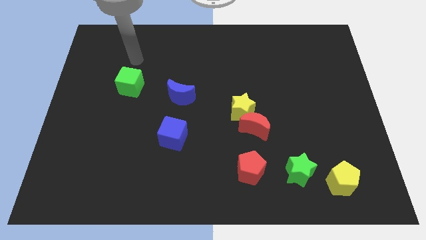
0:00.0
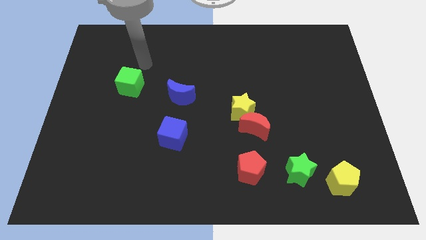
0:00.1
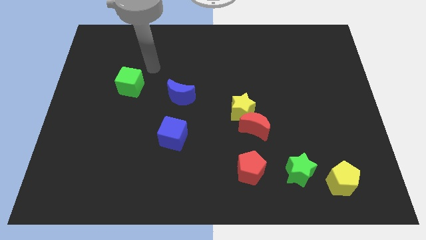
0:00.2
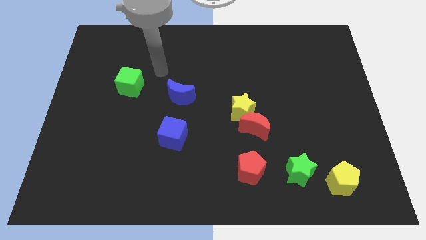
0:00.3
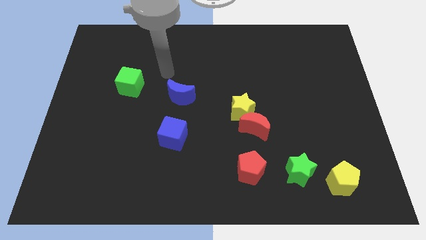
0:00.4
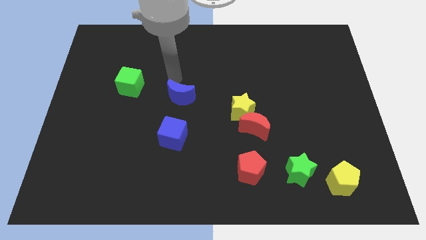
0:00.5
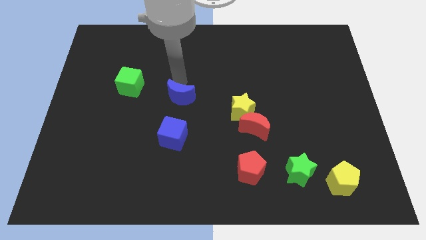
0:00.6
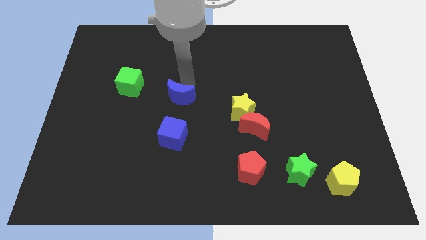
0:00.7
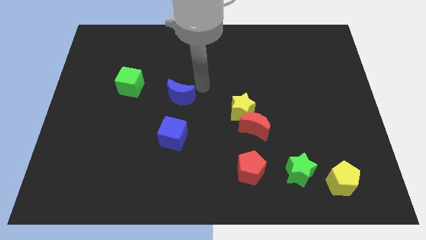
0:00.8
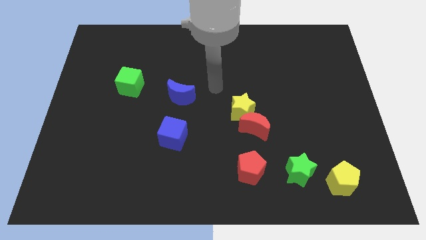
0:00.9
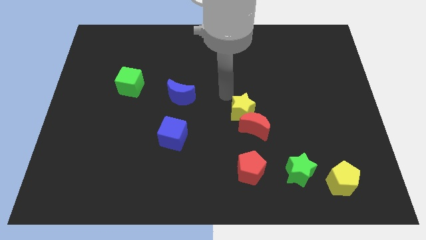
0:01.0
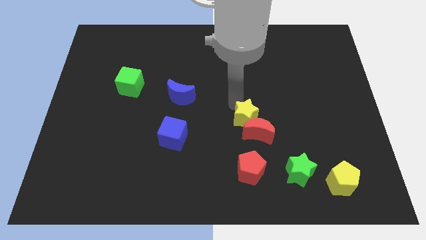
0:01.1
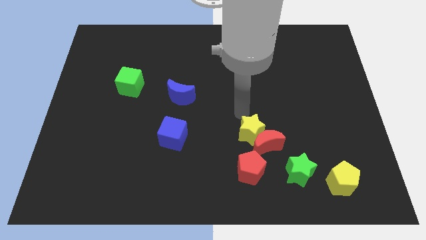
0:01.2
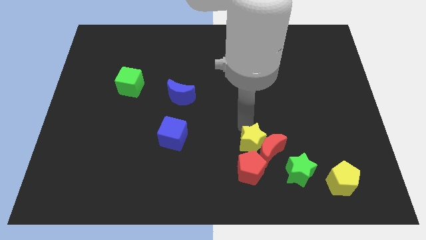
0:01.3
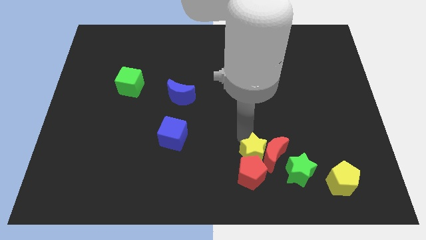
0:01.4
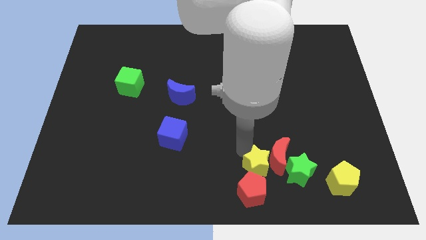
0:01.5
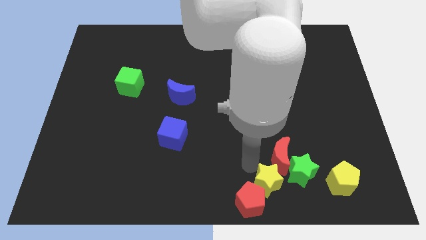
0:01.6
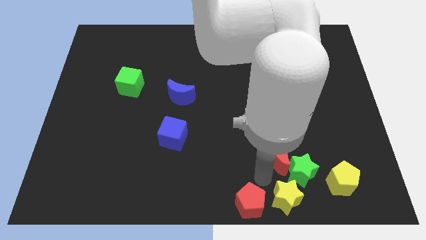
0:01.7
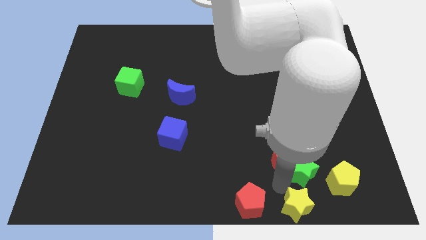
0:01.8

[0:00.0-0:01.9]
pull the red moon apart from the yellow star

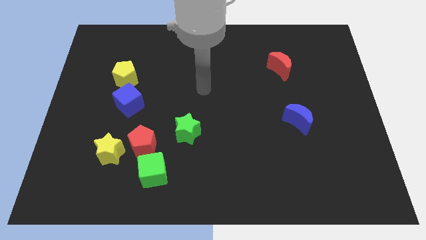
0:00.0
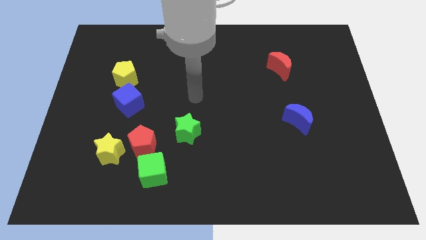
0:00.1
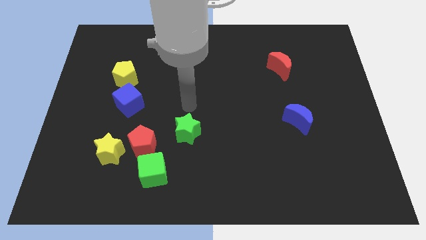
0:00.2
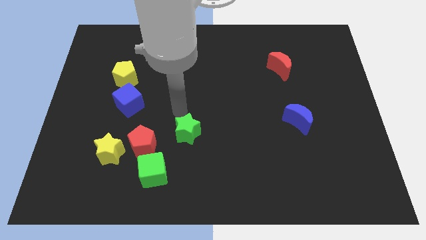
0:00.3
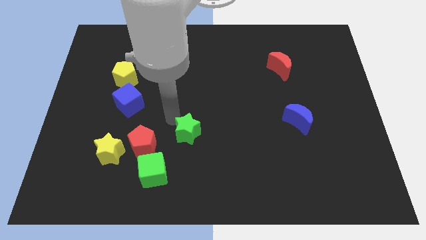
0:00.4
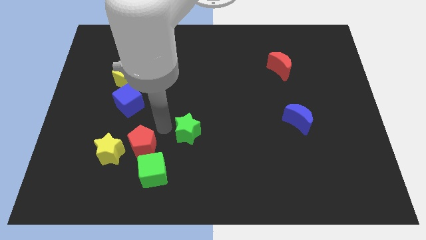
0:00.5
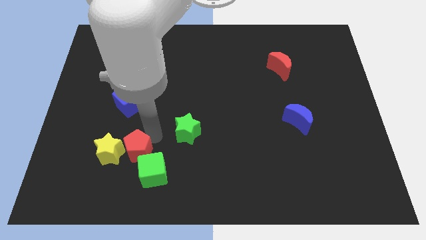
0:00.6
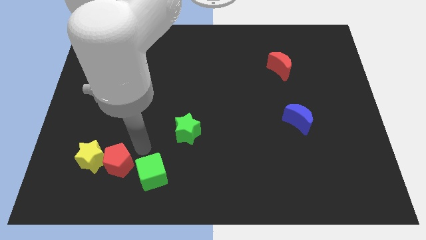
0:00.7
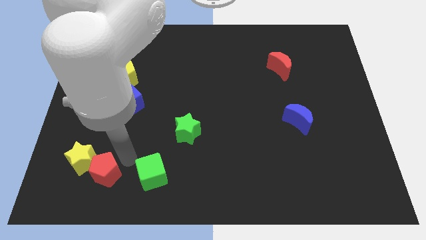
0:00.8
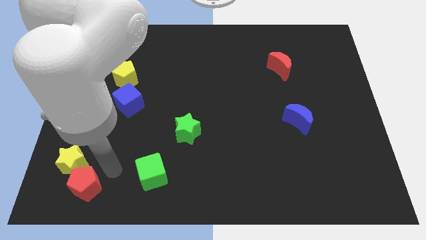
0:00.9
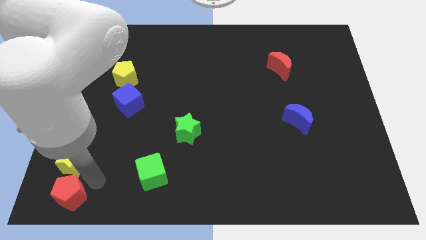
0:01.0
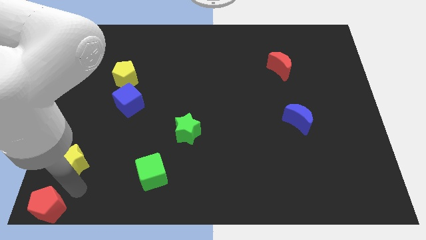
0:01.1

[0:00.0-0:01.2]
pull the yellow star apart from the red pentagon

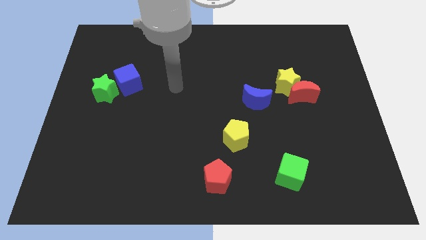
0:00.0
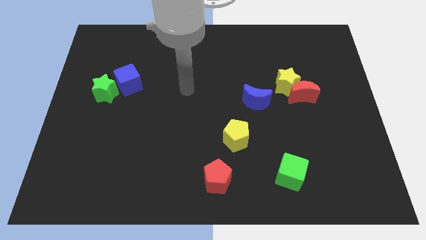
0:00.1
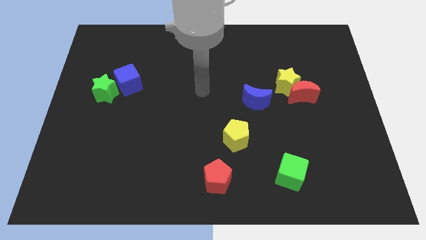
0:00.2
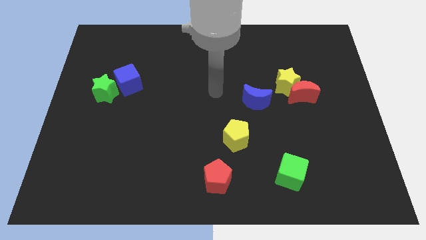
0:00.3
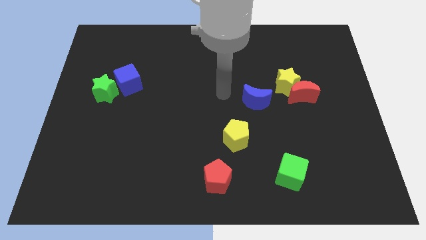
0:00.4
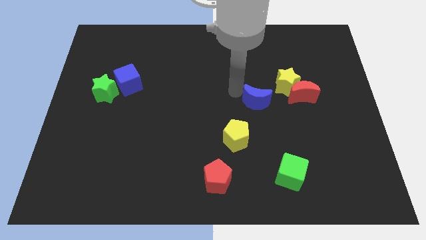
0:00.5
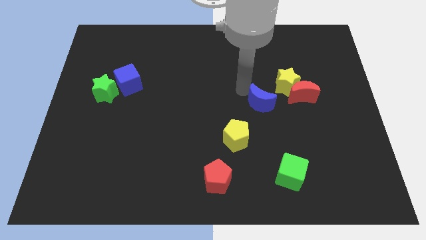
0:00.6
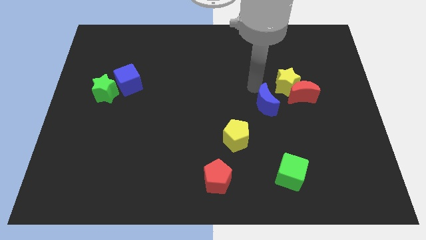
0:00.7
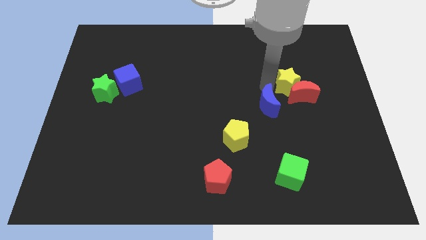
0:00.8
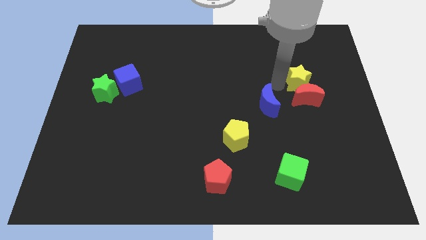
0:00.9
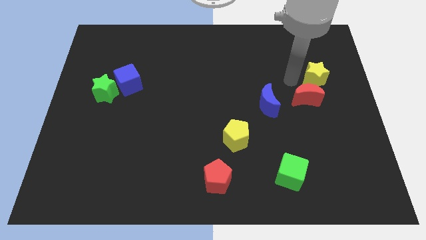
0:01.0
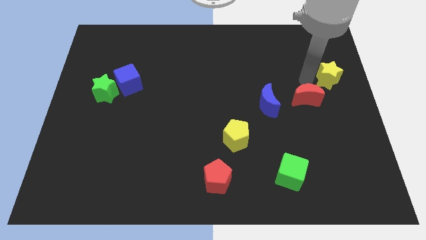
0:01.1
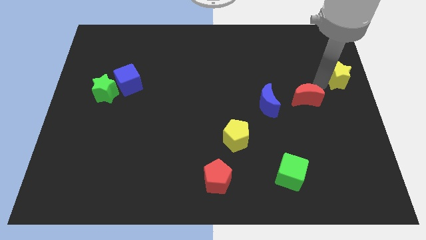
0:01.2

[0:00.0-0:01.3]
move the red moon away from the yellow star

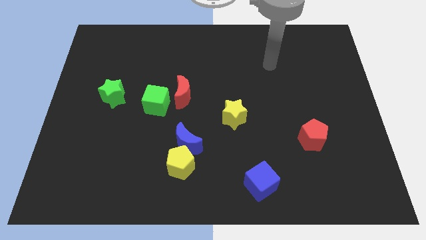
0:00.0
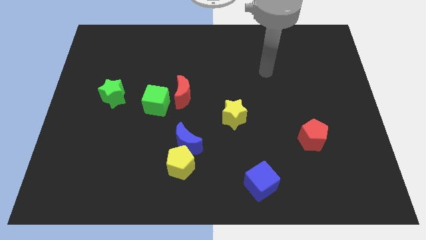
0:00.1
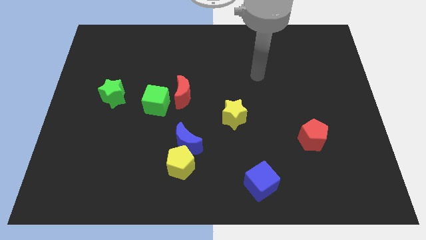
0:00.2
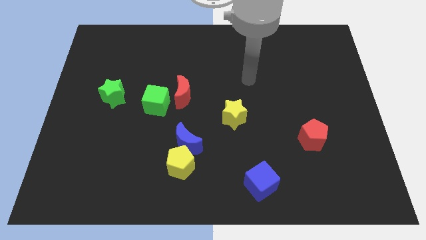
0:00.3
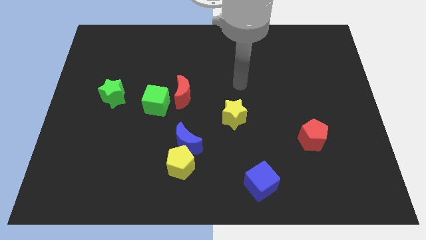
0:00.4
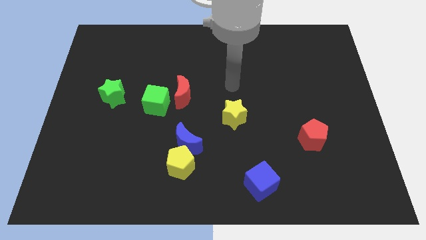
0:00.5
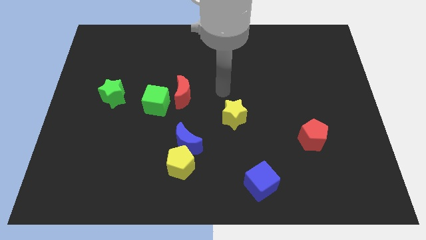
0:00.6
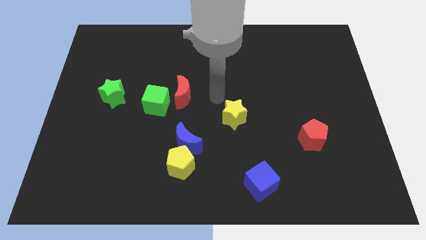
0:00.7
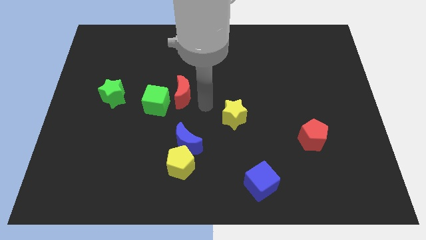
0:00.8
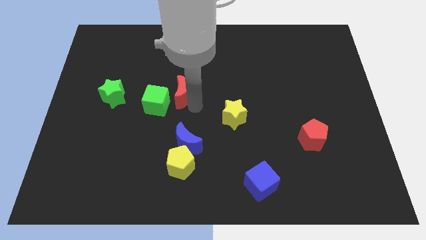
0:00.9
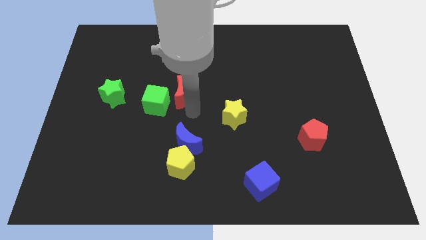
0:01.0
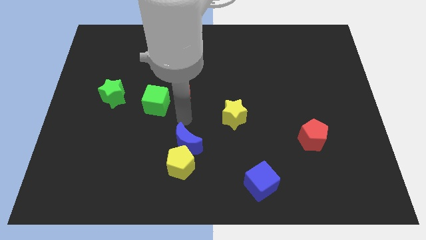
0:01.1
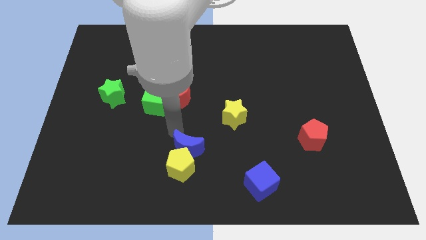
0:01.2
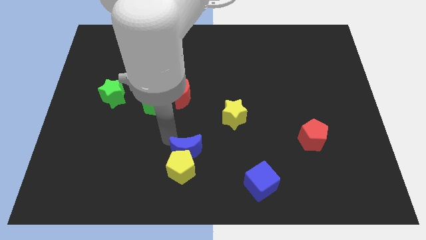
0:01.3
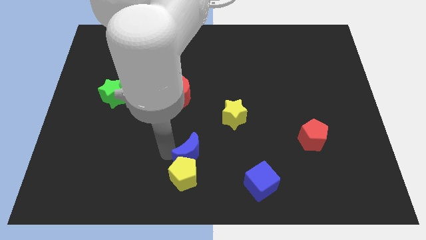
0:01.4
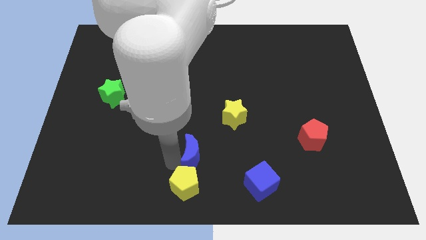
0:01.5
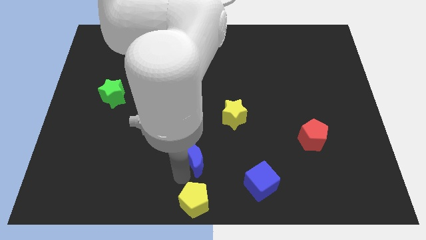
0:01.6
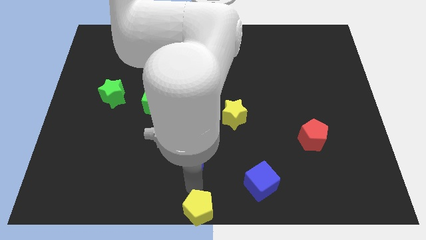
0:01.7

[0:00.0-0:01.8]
pull the blue moon apart from the yellow pentagon

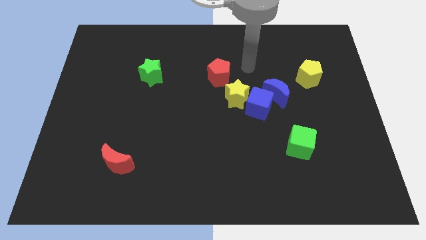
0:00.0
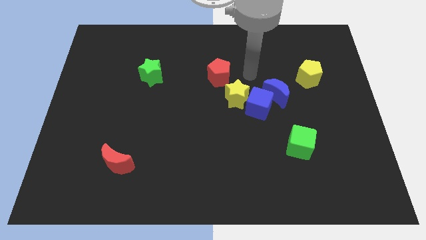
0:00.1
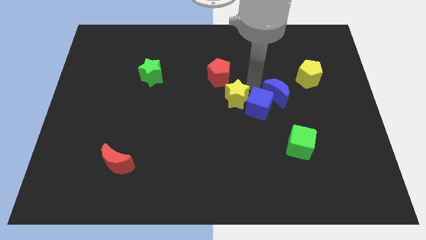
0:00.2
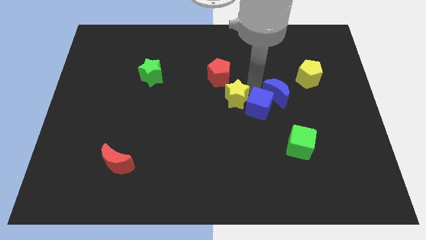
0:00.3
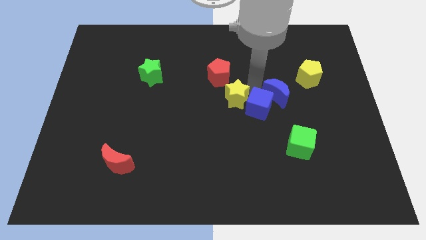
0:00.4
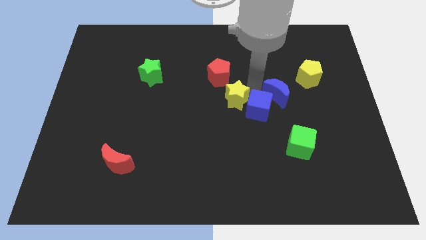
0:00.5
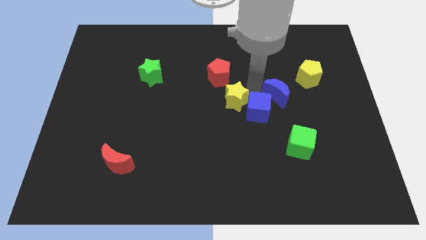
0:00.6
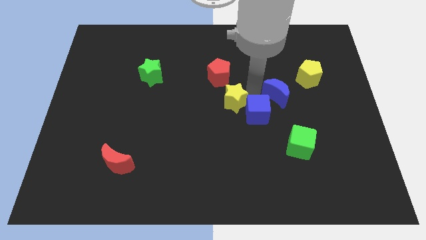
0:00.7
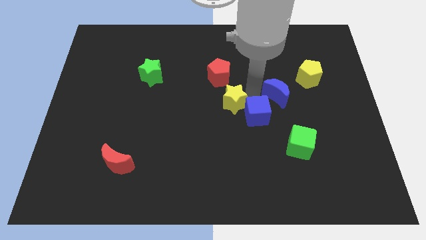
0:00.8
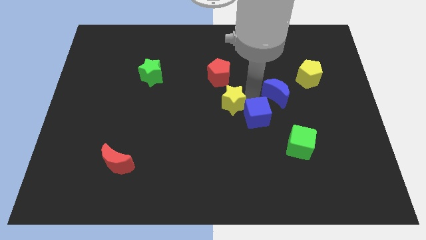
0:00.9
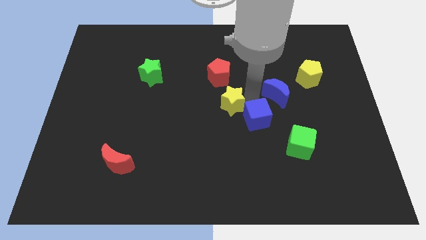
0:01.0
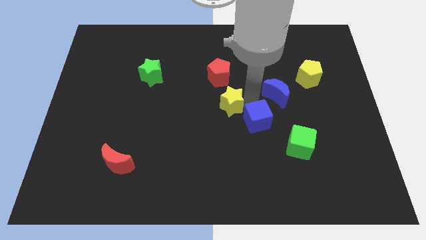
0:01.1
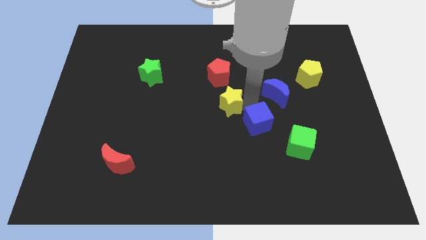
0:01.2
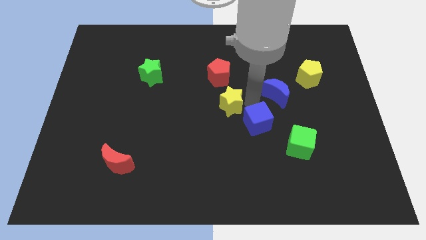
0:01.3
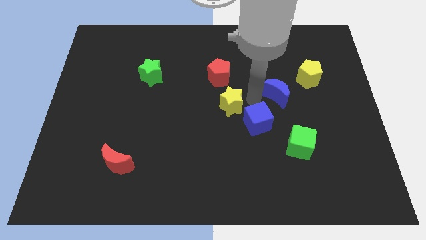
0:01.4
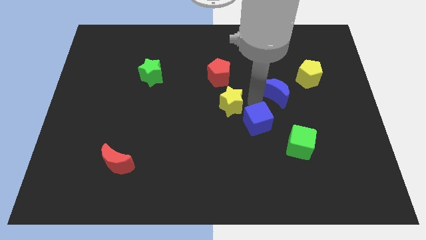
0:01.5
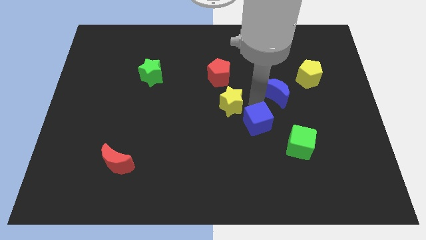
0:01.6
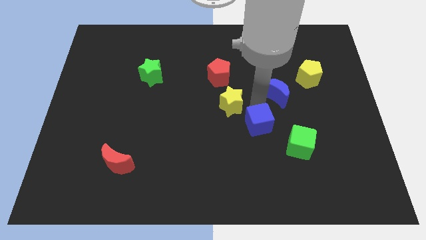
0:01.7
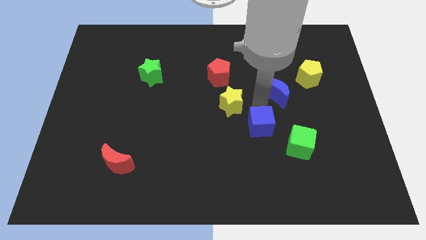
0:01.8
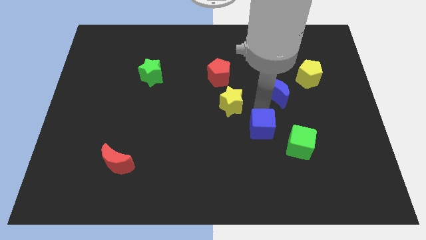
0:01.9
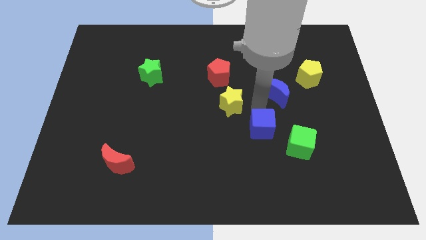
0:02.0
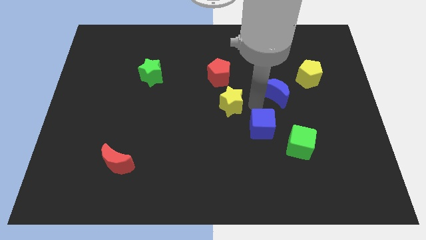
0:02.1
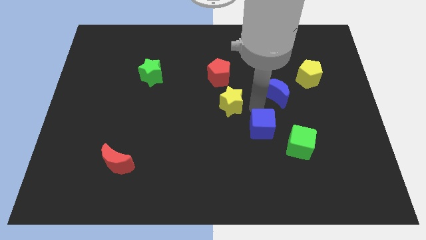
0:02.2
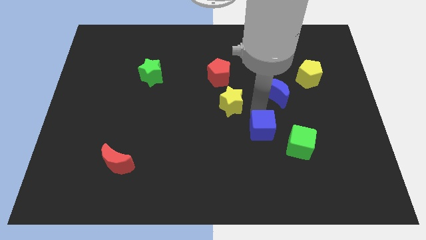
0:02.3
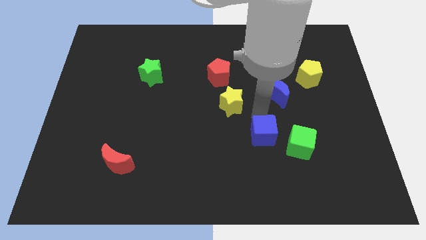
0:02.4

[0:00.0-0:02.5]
move the blue cube away from the blue moon and yellow star

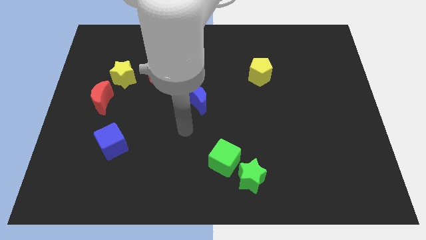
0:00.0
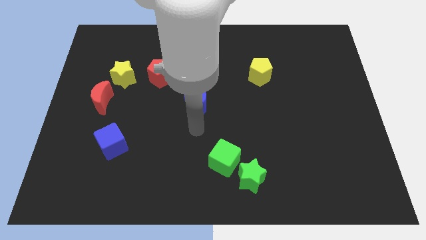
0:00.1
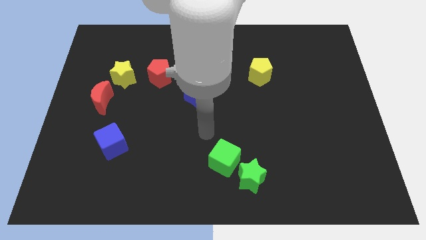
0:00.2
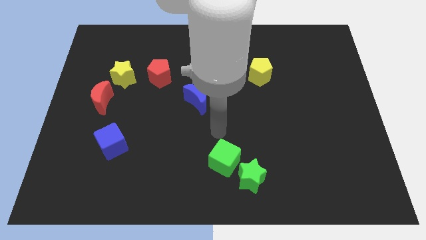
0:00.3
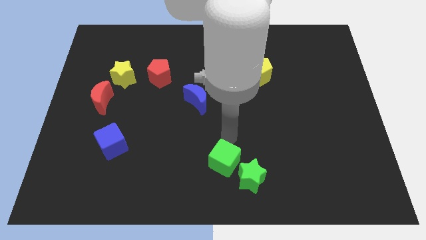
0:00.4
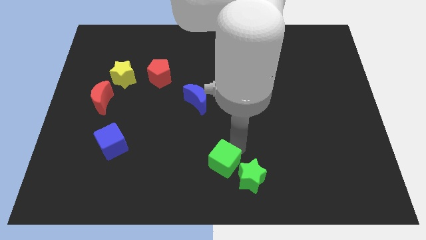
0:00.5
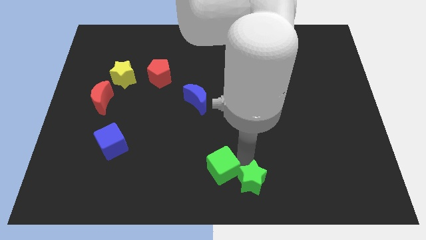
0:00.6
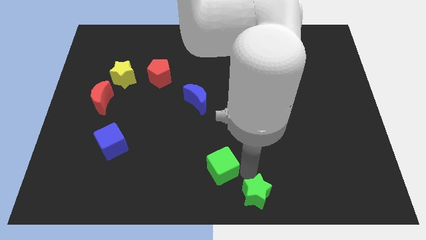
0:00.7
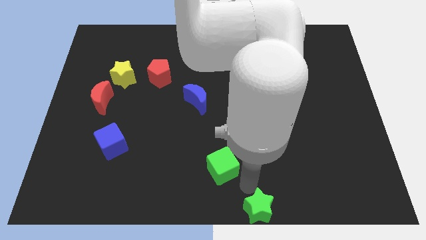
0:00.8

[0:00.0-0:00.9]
pull the green cube apart from the green star
